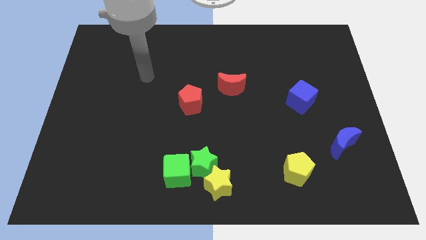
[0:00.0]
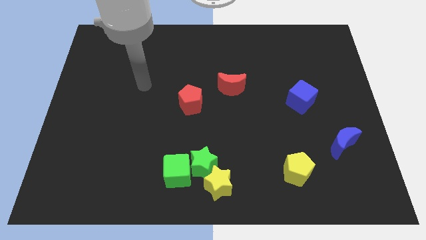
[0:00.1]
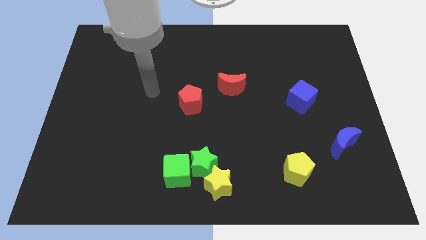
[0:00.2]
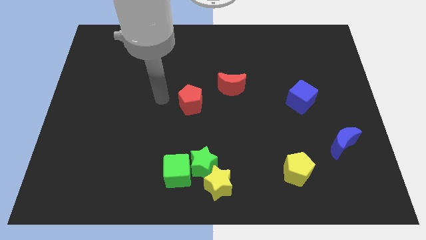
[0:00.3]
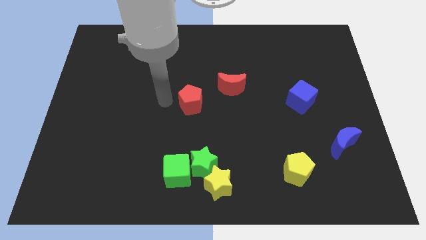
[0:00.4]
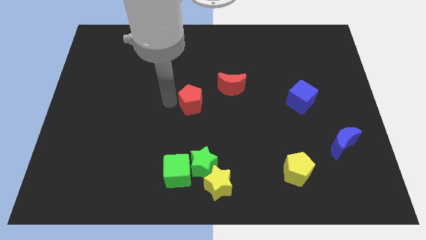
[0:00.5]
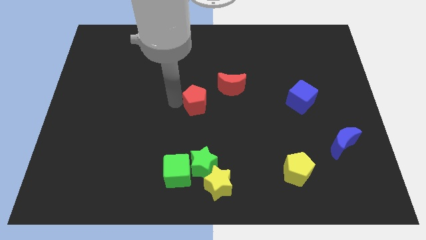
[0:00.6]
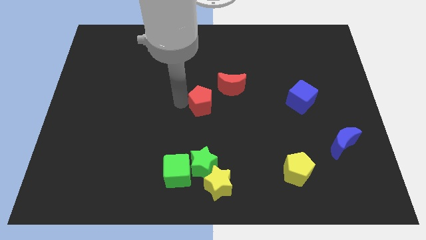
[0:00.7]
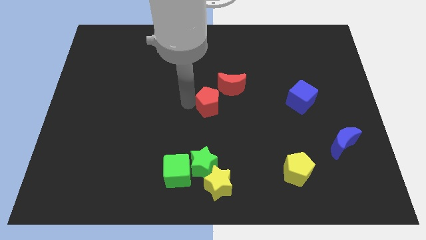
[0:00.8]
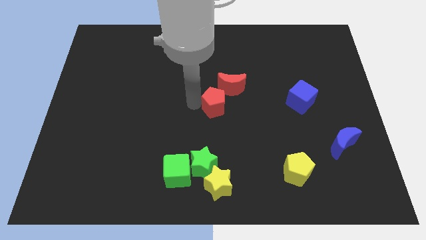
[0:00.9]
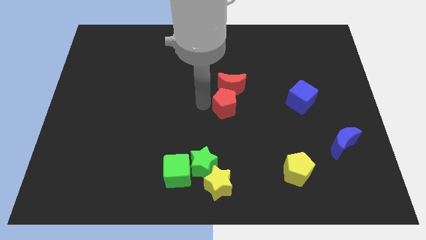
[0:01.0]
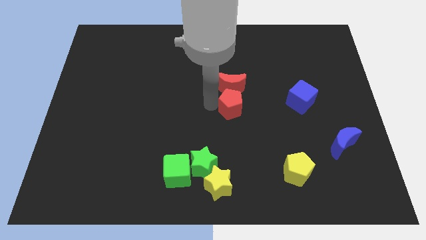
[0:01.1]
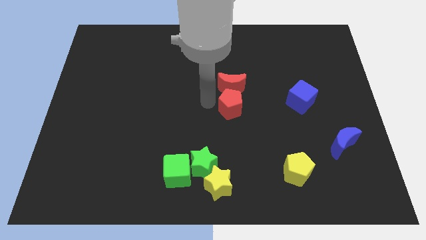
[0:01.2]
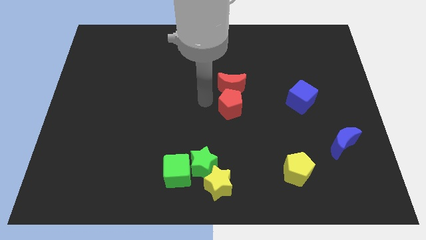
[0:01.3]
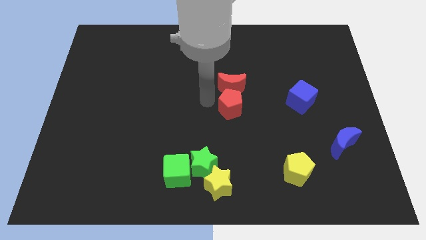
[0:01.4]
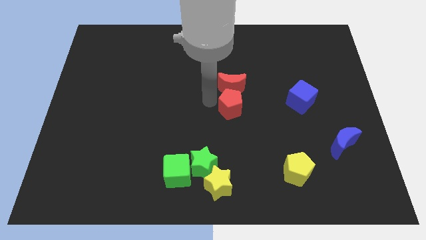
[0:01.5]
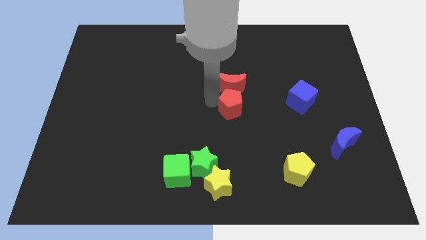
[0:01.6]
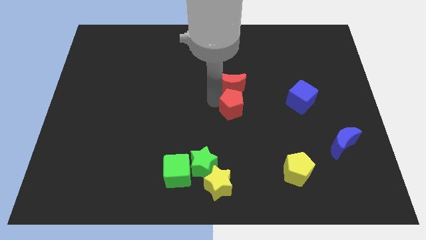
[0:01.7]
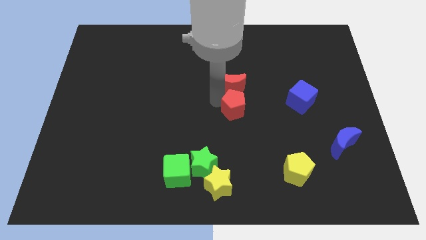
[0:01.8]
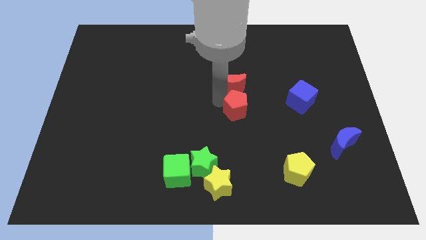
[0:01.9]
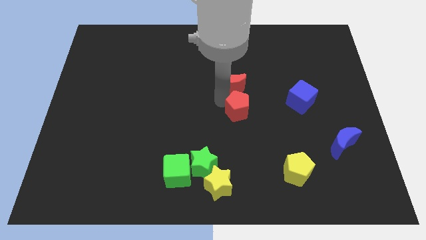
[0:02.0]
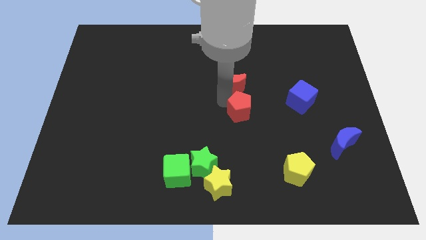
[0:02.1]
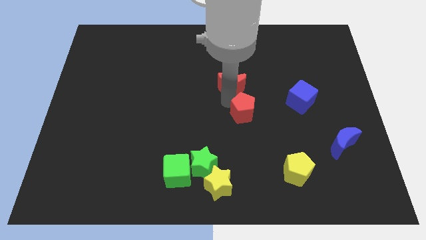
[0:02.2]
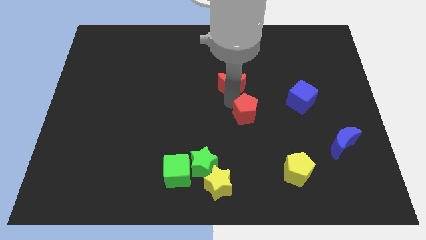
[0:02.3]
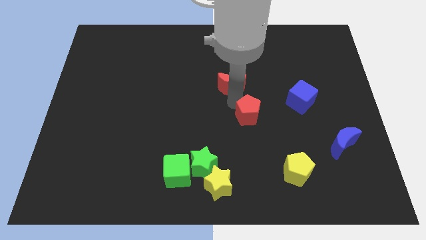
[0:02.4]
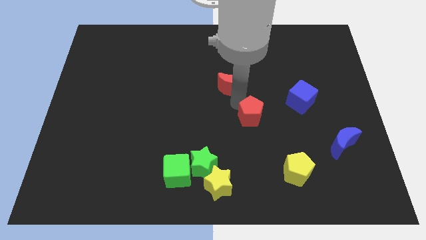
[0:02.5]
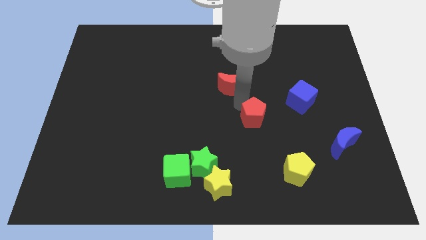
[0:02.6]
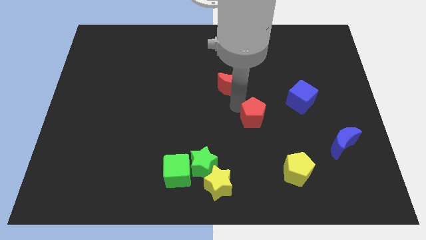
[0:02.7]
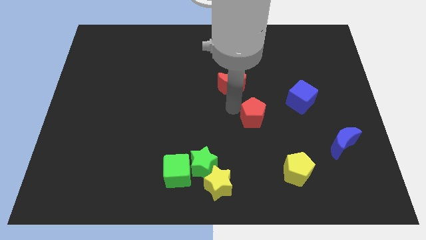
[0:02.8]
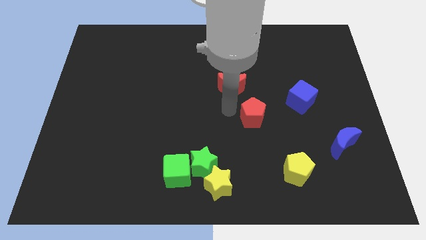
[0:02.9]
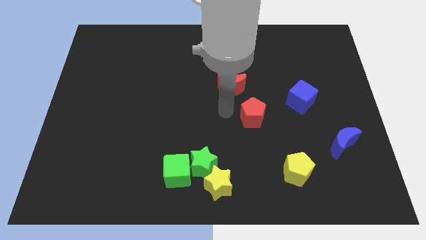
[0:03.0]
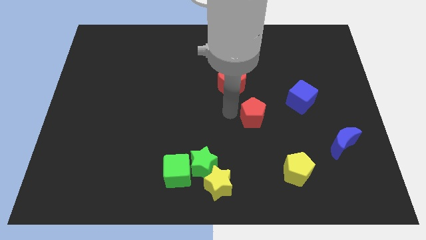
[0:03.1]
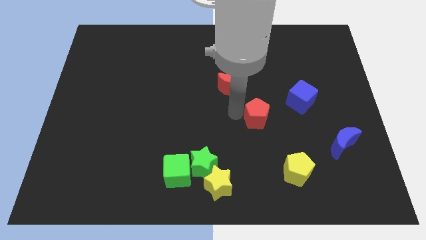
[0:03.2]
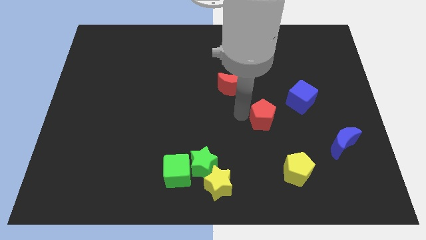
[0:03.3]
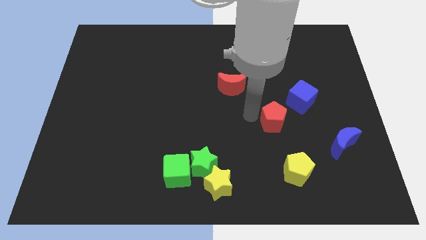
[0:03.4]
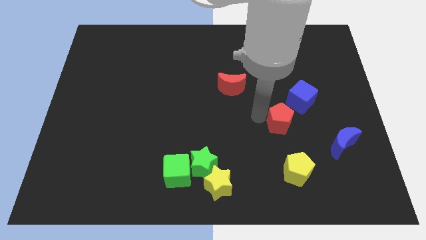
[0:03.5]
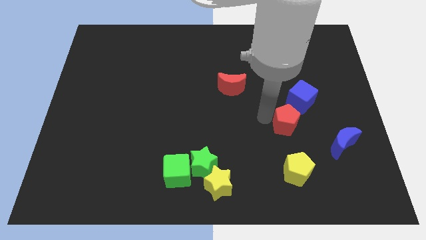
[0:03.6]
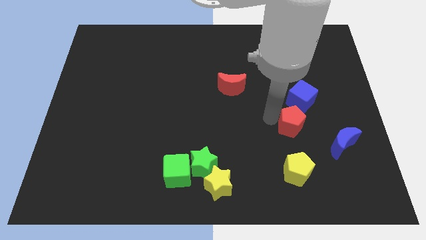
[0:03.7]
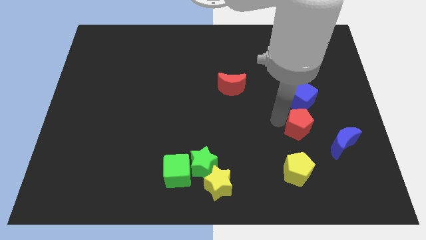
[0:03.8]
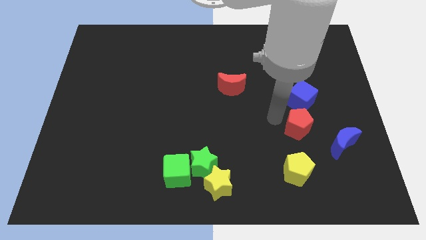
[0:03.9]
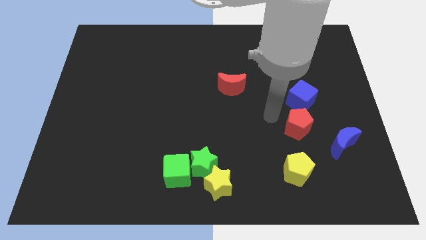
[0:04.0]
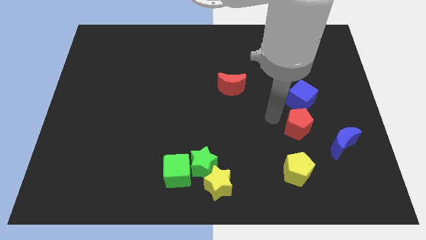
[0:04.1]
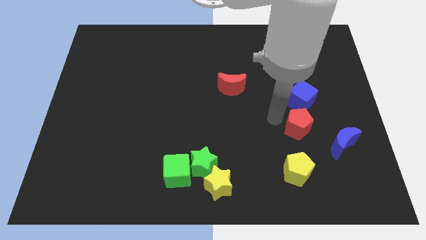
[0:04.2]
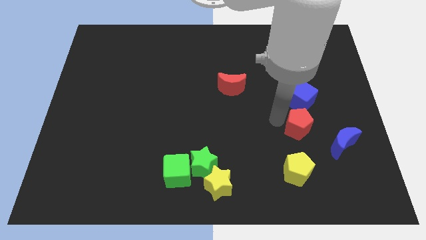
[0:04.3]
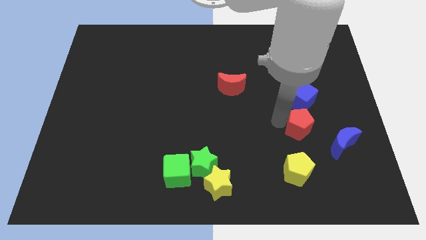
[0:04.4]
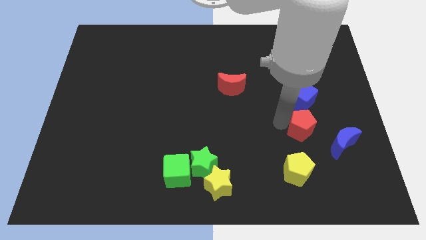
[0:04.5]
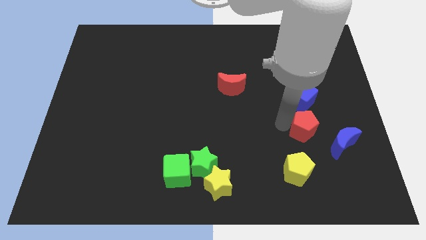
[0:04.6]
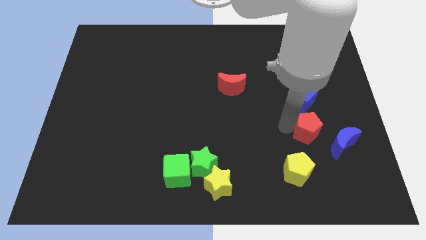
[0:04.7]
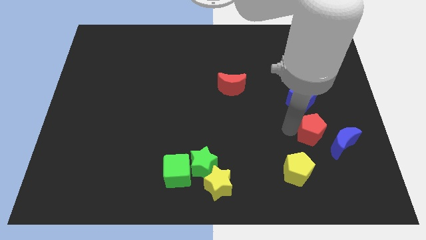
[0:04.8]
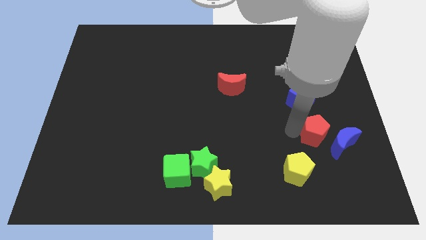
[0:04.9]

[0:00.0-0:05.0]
slide the red pentagon close to the blue moon

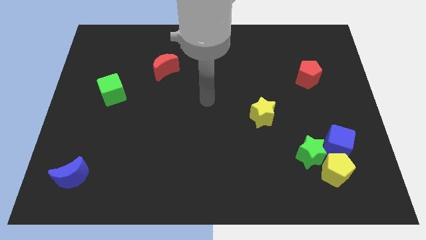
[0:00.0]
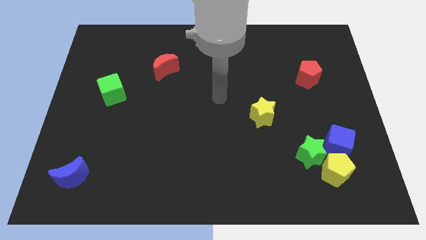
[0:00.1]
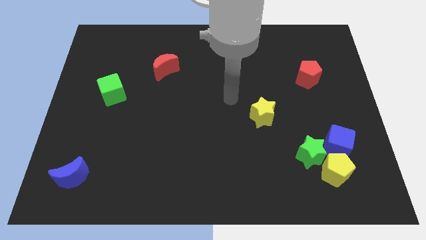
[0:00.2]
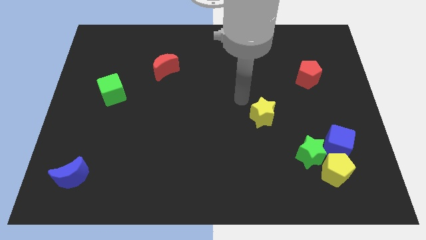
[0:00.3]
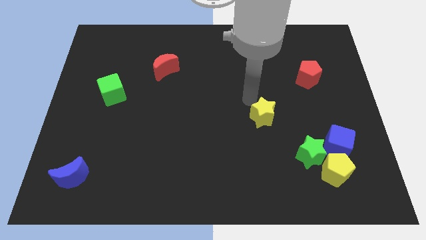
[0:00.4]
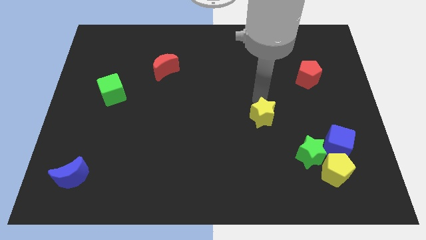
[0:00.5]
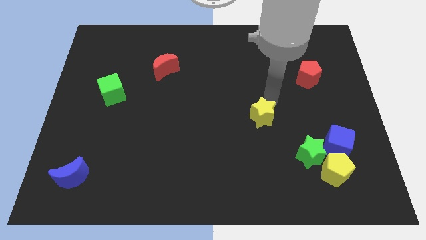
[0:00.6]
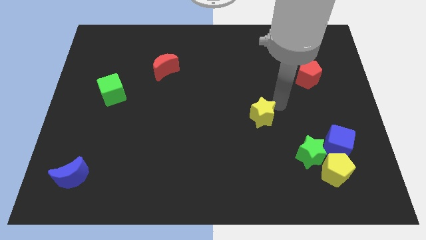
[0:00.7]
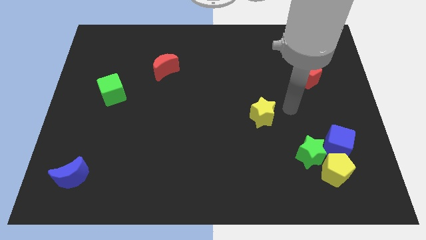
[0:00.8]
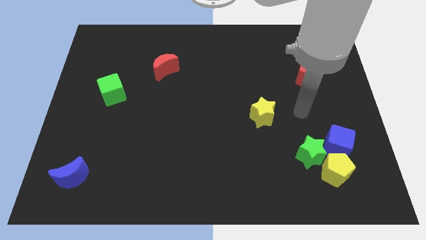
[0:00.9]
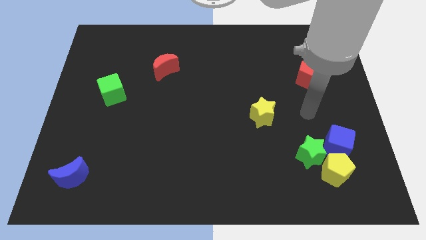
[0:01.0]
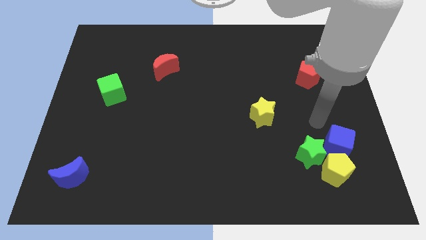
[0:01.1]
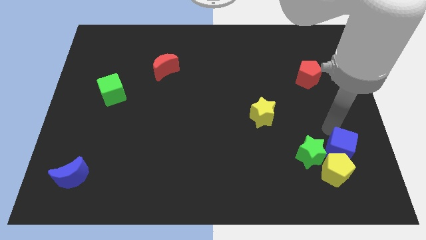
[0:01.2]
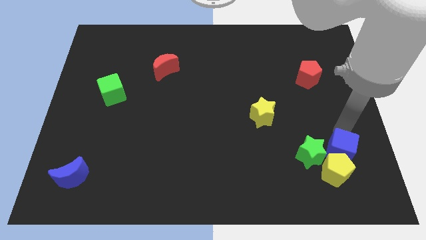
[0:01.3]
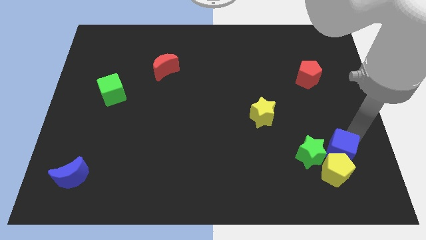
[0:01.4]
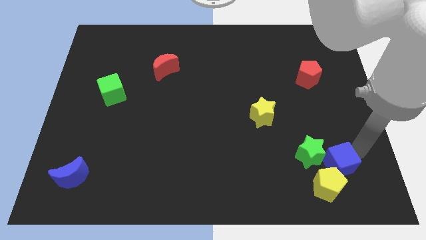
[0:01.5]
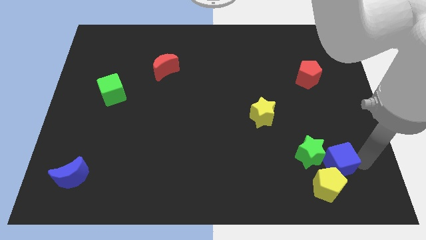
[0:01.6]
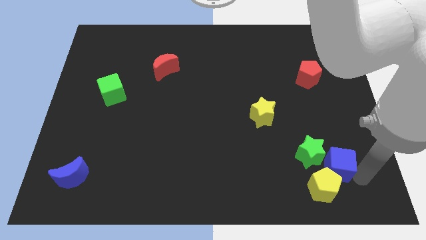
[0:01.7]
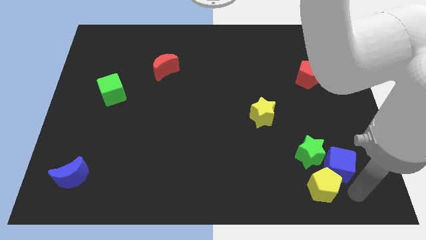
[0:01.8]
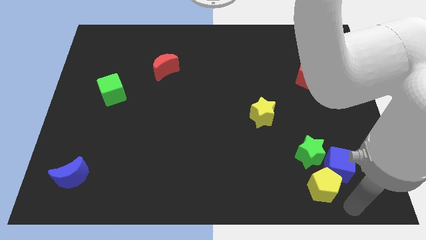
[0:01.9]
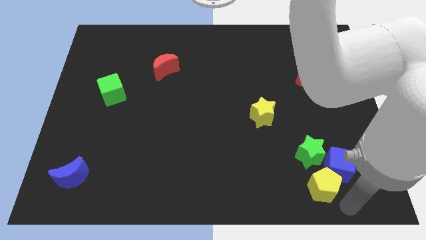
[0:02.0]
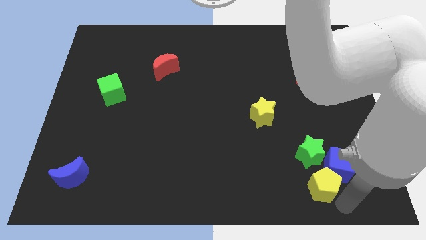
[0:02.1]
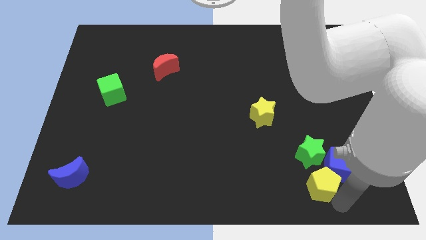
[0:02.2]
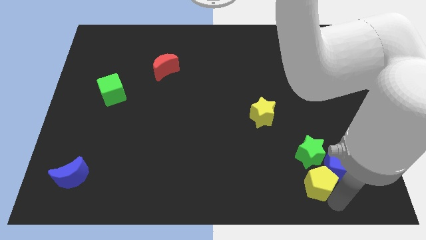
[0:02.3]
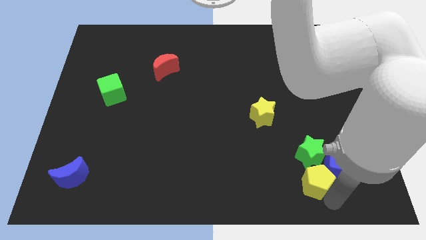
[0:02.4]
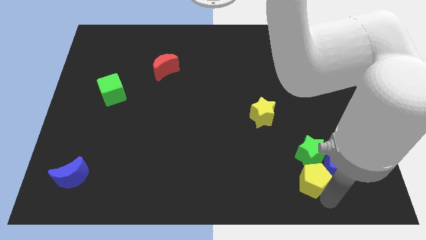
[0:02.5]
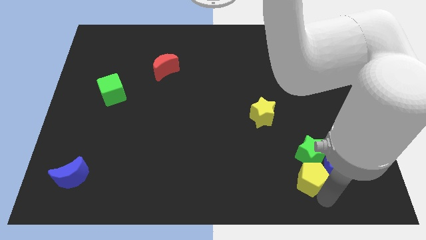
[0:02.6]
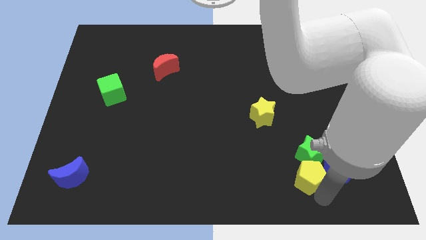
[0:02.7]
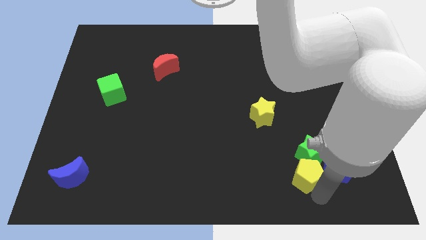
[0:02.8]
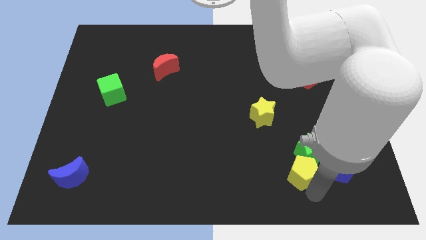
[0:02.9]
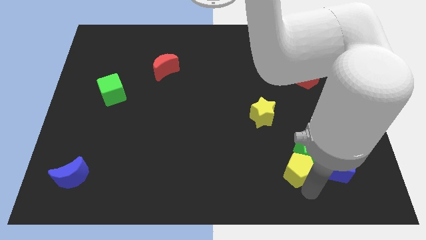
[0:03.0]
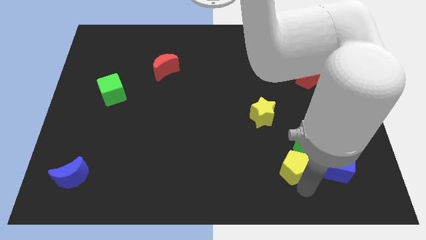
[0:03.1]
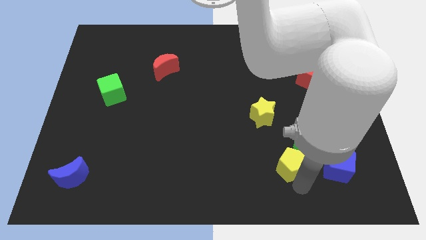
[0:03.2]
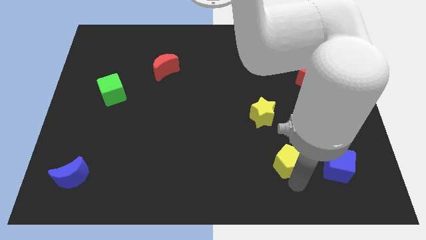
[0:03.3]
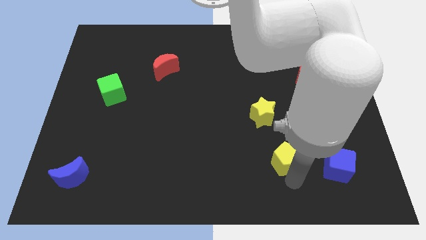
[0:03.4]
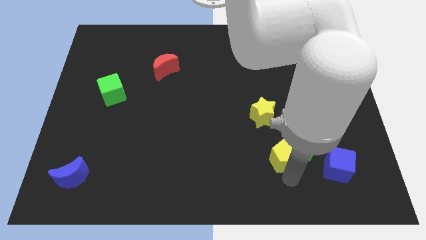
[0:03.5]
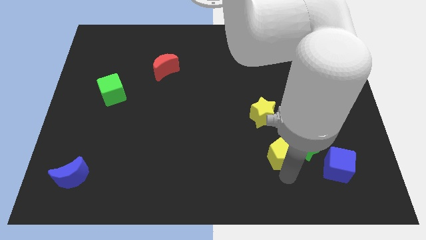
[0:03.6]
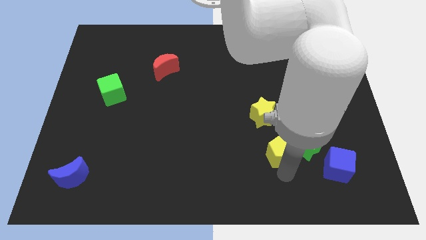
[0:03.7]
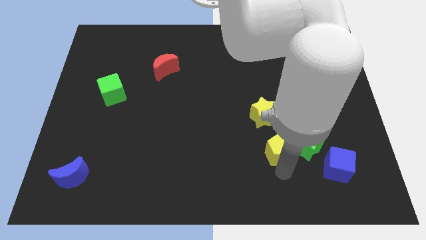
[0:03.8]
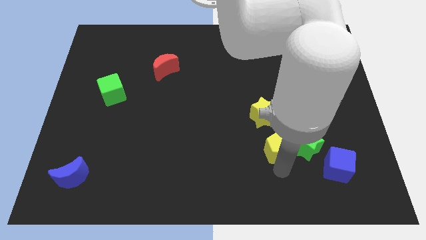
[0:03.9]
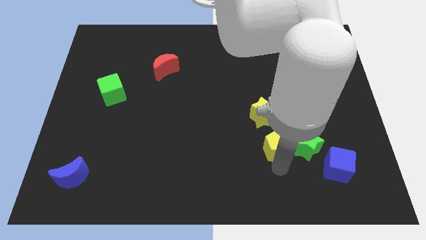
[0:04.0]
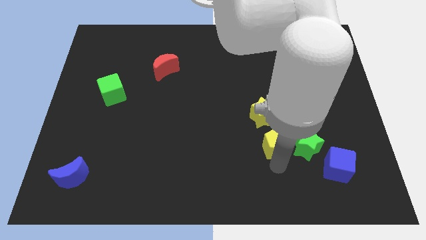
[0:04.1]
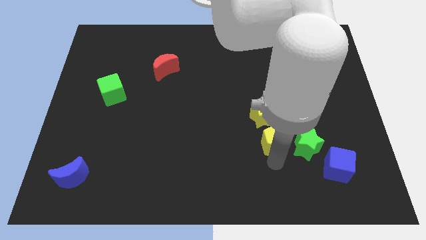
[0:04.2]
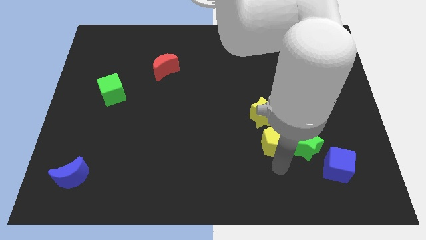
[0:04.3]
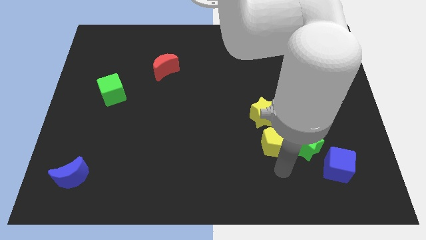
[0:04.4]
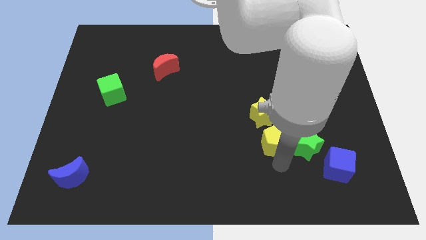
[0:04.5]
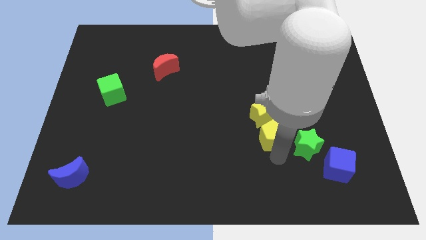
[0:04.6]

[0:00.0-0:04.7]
move the yellow pentagon to the yellow star
